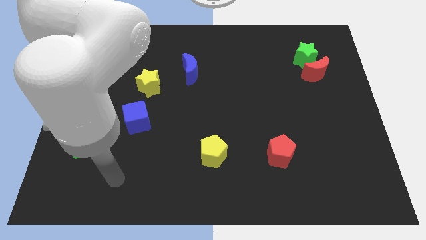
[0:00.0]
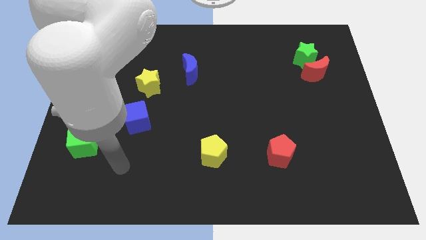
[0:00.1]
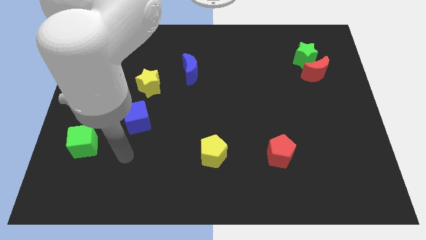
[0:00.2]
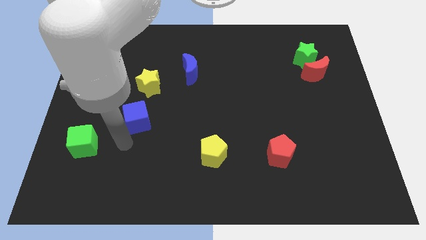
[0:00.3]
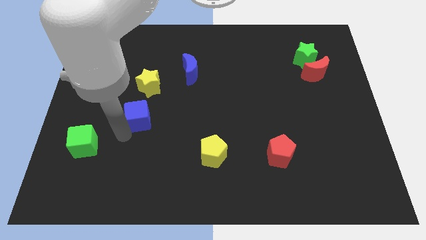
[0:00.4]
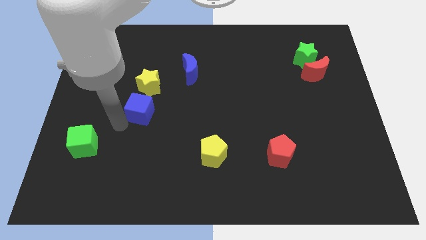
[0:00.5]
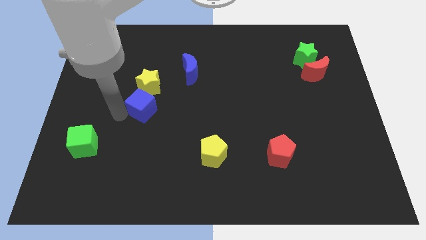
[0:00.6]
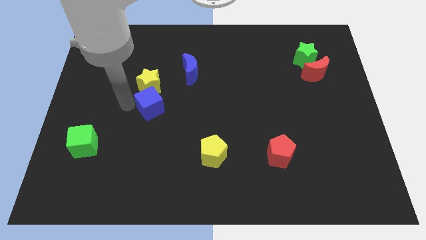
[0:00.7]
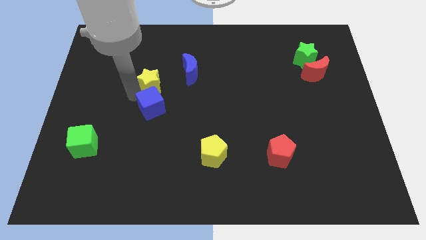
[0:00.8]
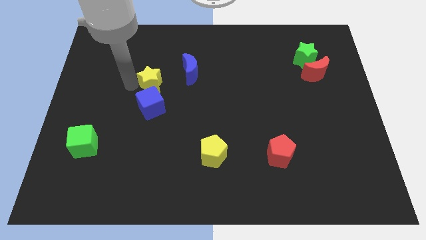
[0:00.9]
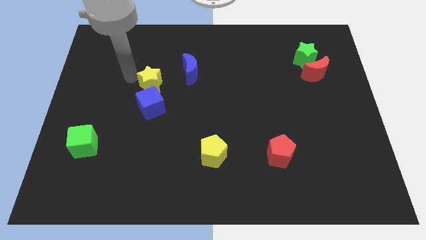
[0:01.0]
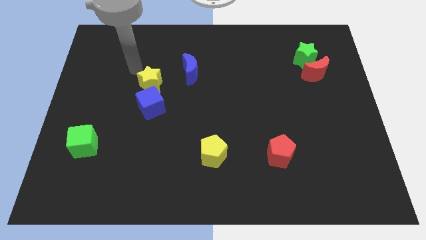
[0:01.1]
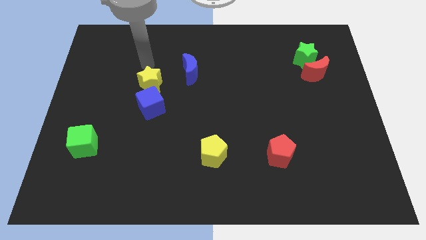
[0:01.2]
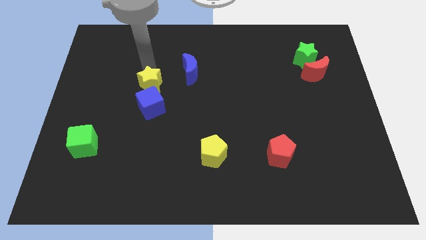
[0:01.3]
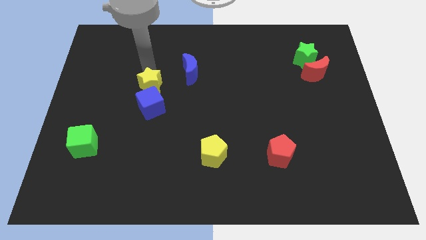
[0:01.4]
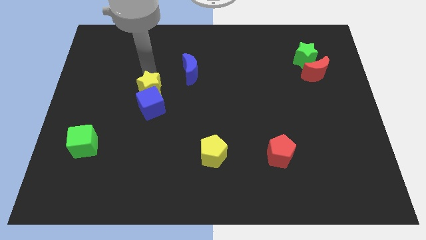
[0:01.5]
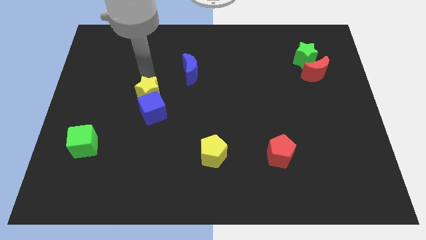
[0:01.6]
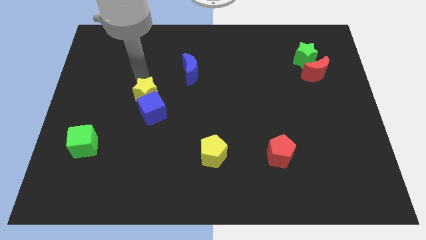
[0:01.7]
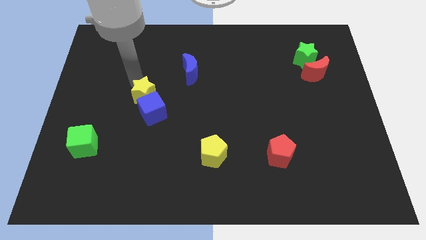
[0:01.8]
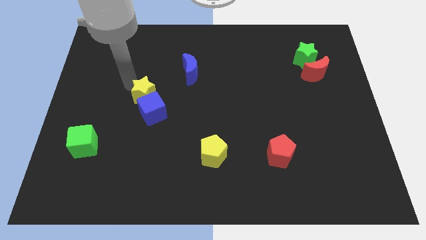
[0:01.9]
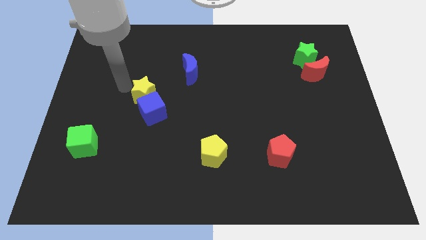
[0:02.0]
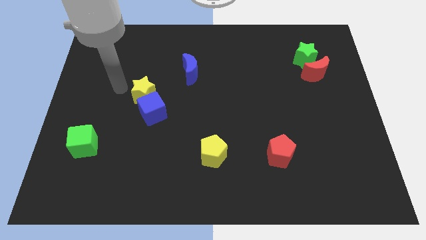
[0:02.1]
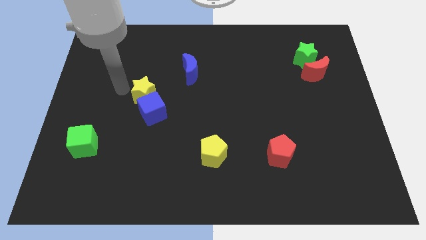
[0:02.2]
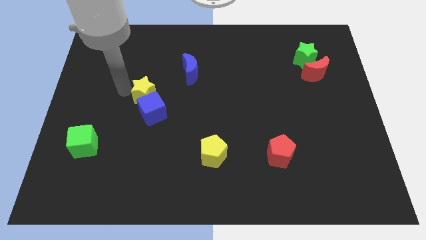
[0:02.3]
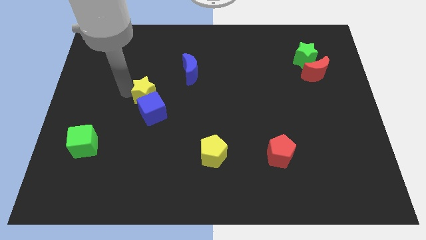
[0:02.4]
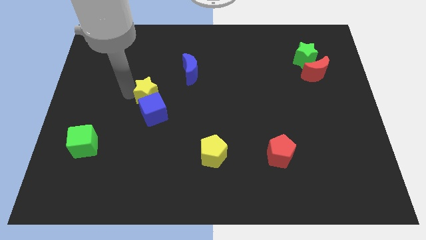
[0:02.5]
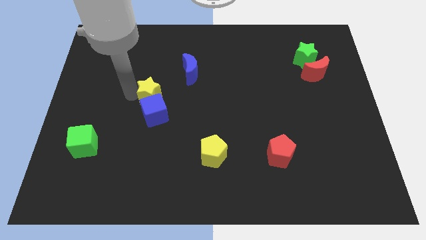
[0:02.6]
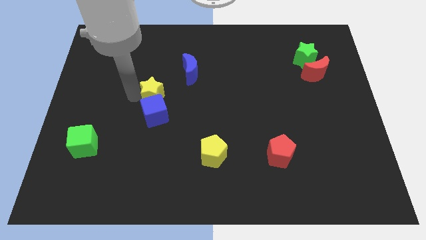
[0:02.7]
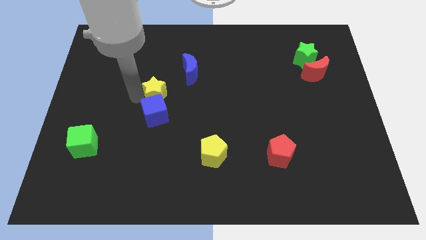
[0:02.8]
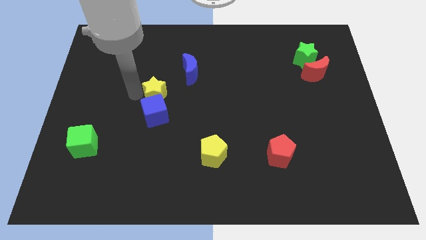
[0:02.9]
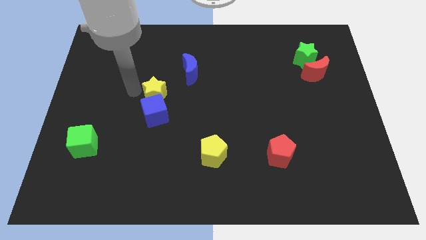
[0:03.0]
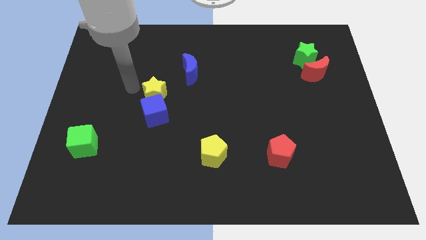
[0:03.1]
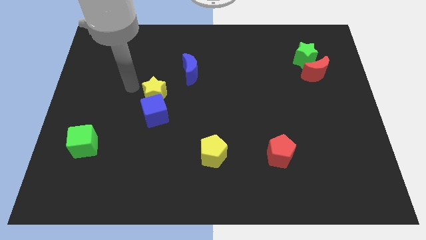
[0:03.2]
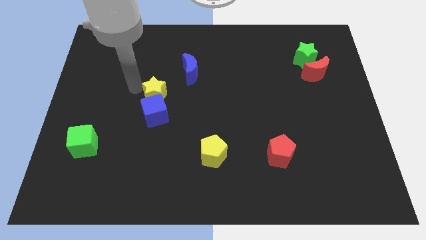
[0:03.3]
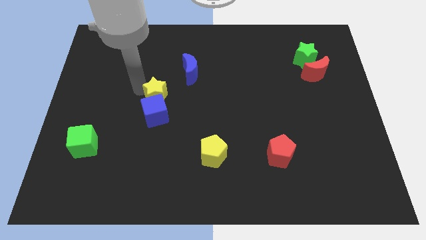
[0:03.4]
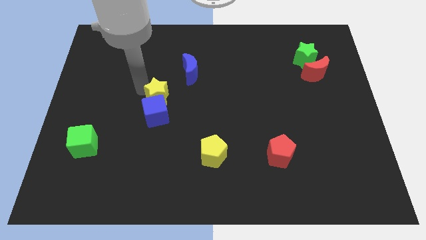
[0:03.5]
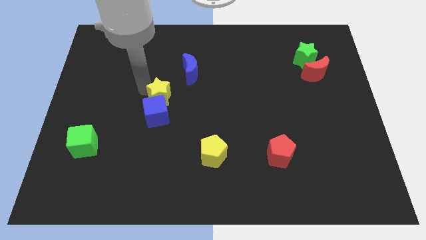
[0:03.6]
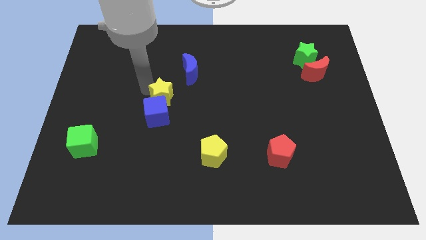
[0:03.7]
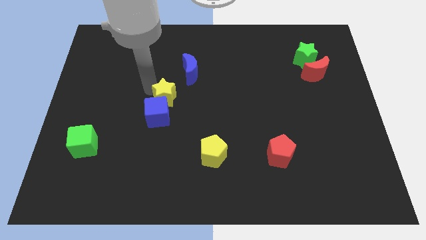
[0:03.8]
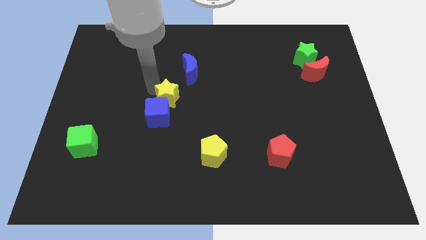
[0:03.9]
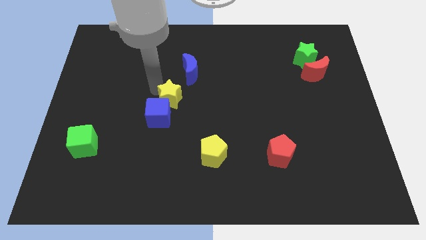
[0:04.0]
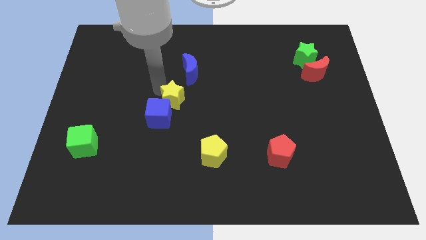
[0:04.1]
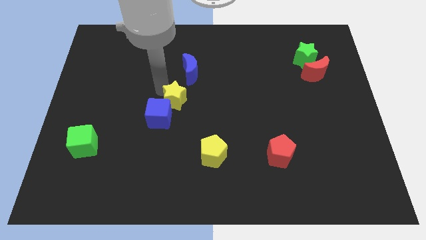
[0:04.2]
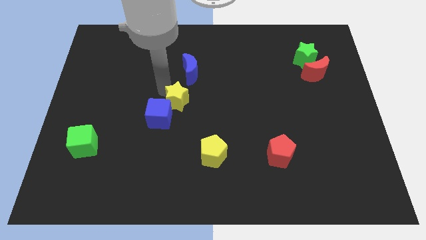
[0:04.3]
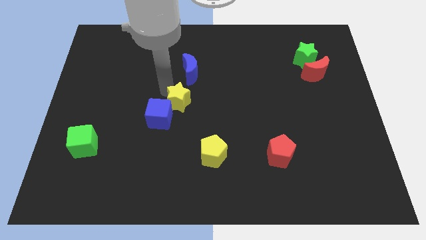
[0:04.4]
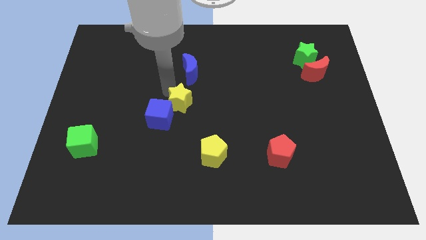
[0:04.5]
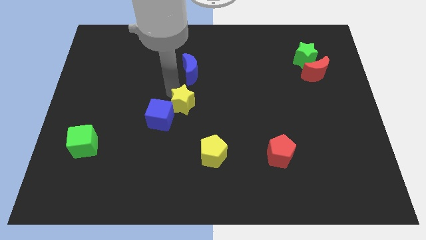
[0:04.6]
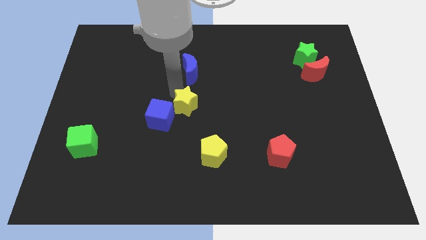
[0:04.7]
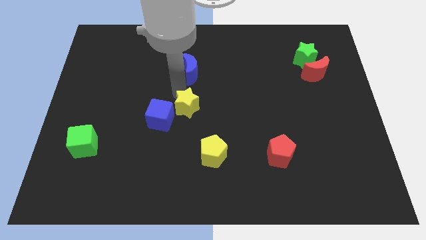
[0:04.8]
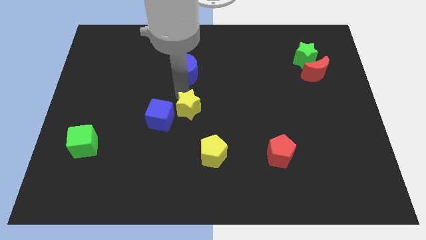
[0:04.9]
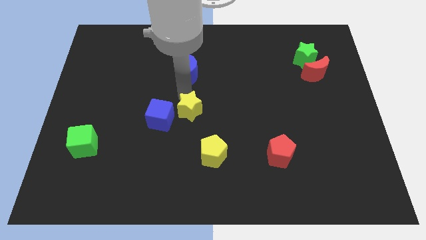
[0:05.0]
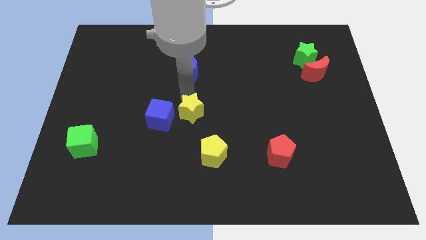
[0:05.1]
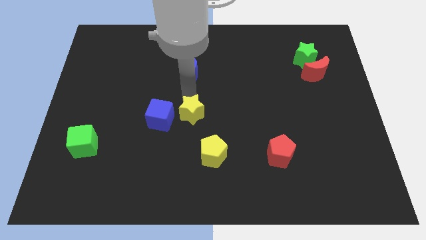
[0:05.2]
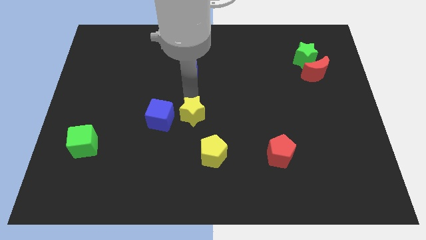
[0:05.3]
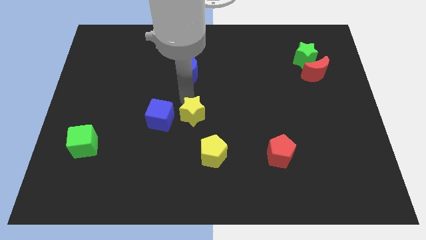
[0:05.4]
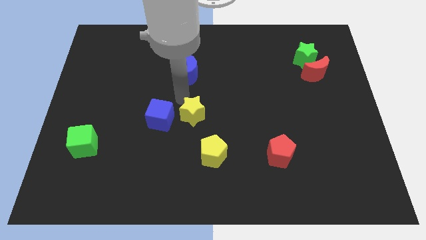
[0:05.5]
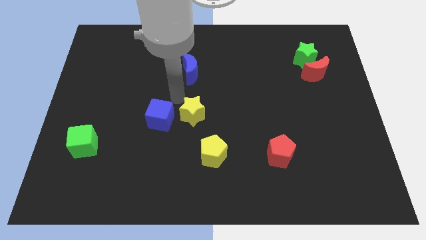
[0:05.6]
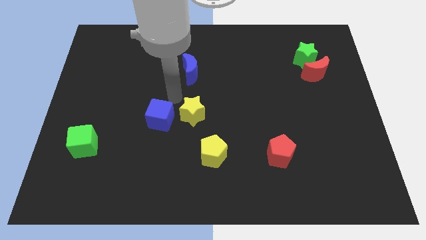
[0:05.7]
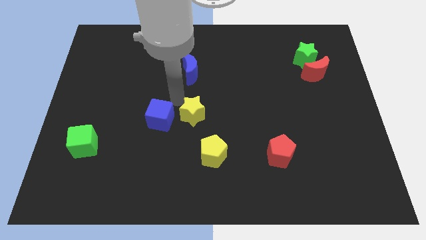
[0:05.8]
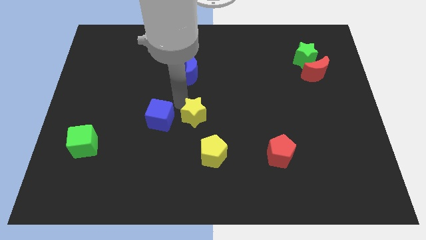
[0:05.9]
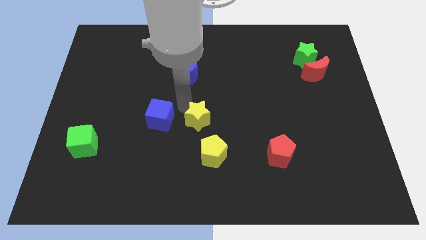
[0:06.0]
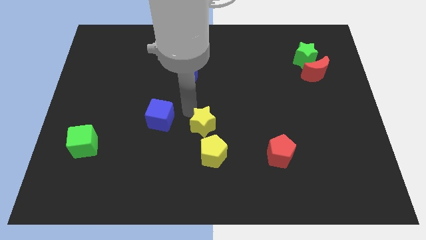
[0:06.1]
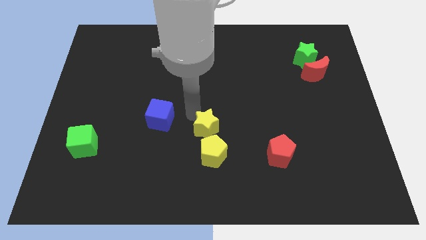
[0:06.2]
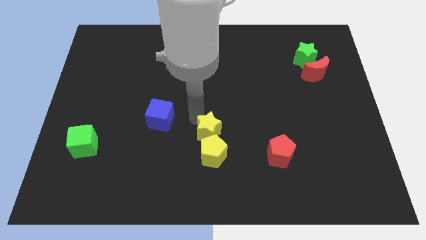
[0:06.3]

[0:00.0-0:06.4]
push the yellow star downwards and right diagonally

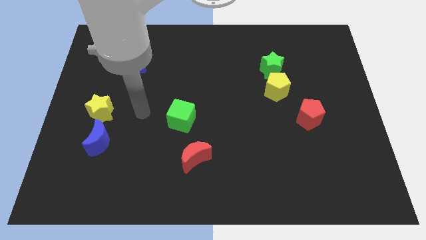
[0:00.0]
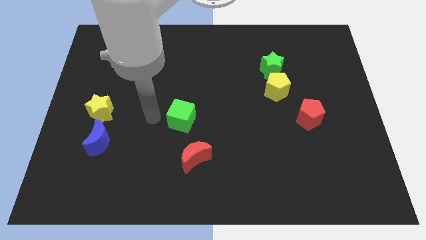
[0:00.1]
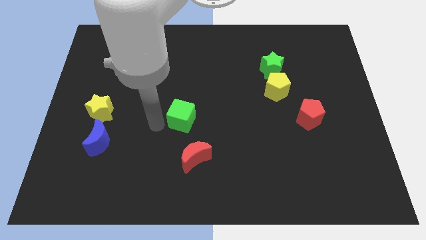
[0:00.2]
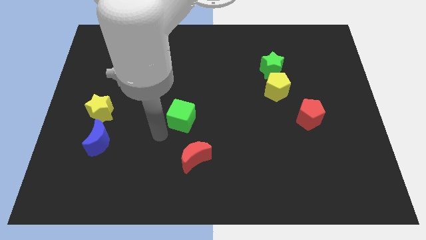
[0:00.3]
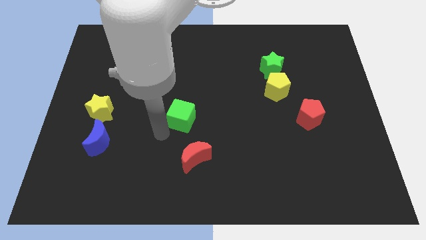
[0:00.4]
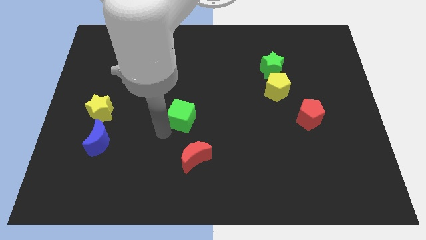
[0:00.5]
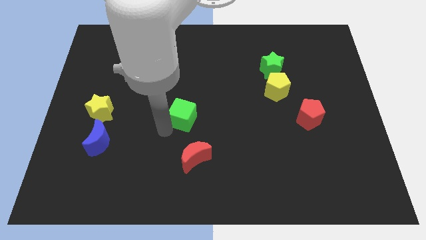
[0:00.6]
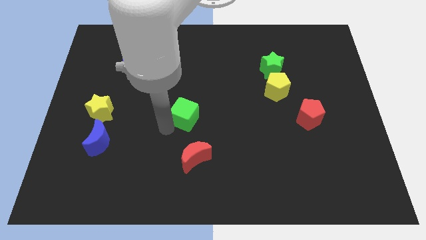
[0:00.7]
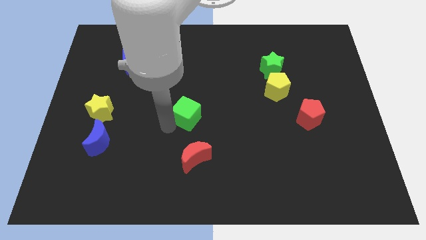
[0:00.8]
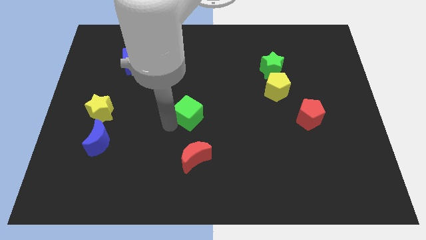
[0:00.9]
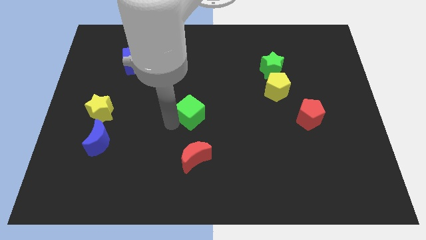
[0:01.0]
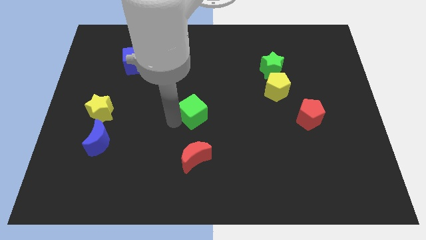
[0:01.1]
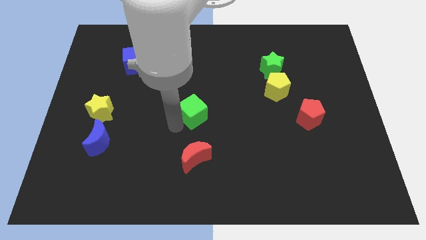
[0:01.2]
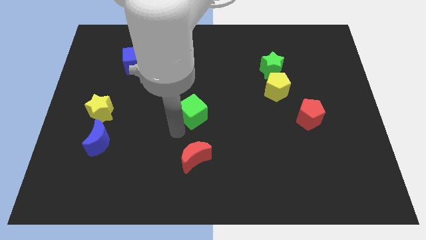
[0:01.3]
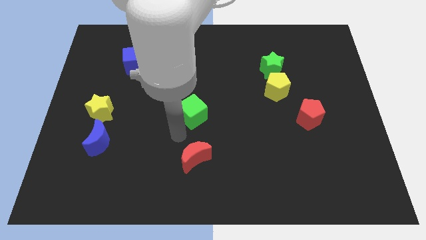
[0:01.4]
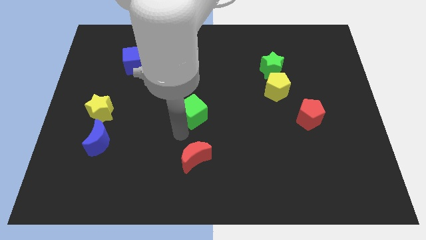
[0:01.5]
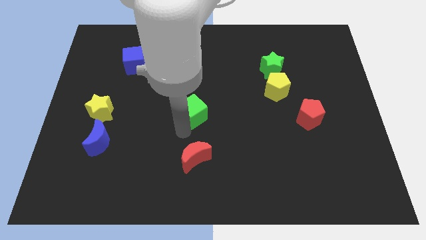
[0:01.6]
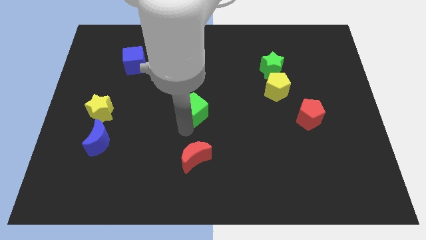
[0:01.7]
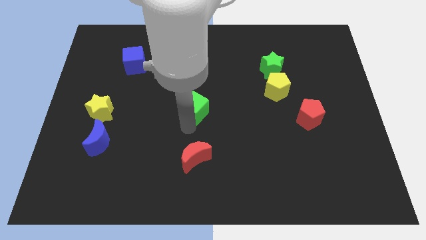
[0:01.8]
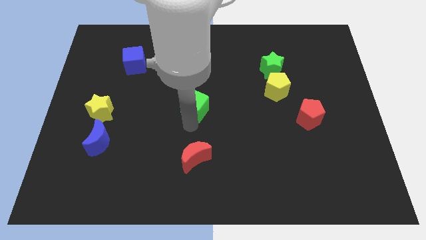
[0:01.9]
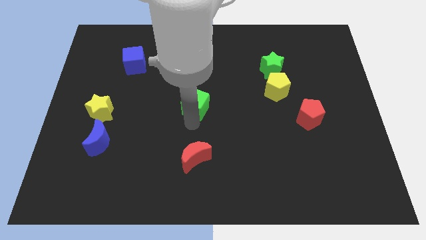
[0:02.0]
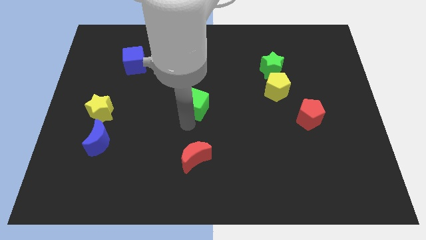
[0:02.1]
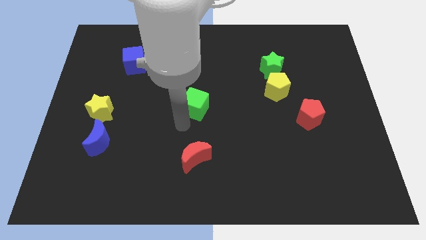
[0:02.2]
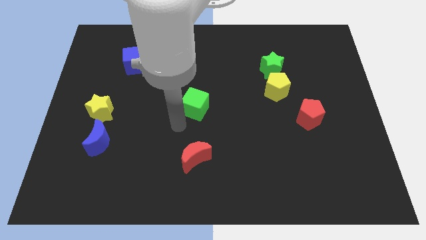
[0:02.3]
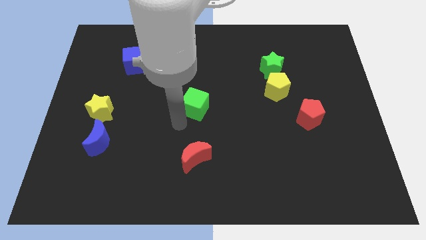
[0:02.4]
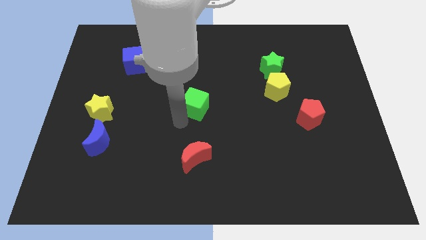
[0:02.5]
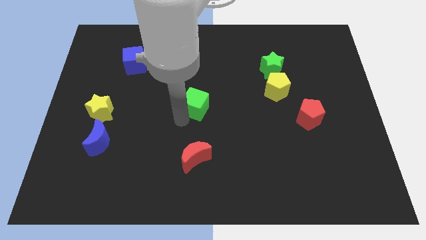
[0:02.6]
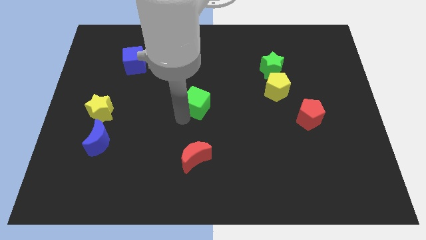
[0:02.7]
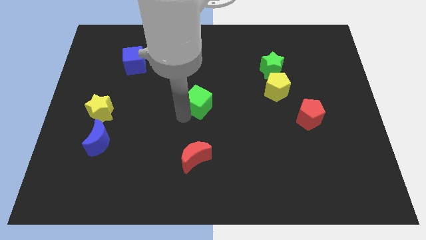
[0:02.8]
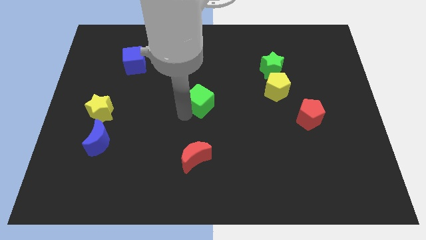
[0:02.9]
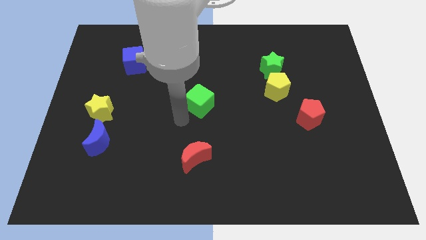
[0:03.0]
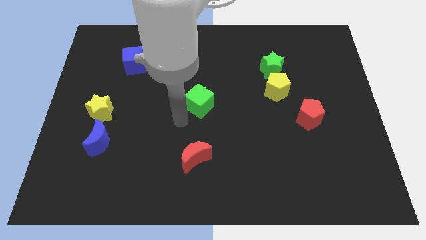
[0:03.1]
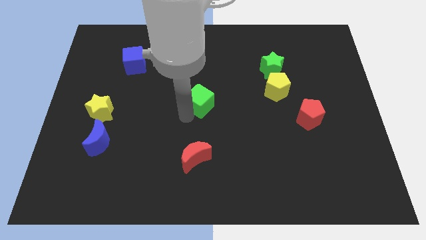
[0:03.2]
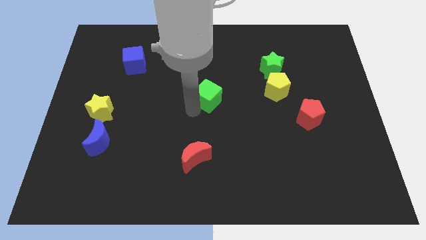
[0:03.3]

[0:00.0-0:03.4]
slide the green cube somewhat diagonally upwards and right
